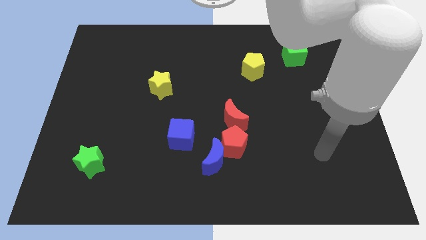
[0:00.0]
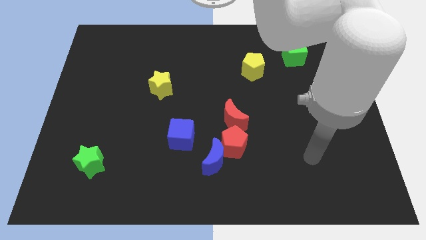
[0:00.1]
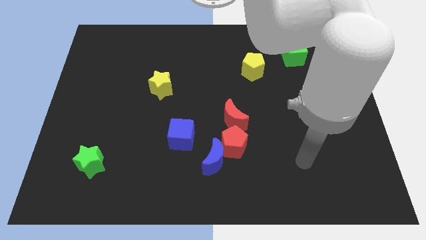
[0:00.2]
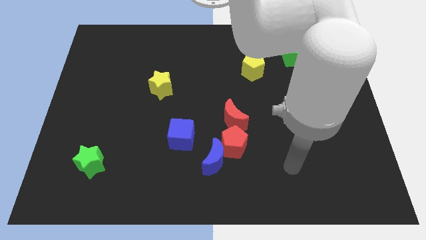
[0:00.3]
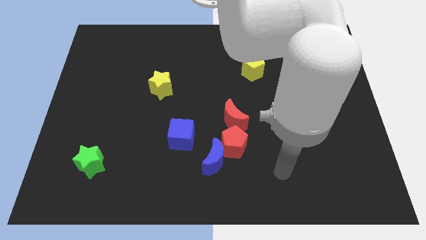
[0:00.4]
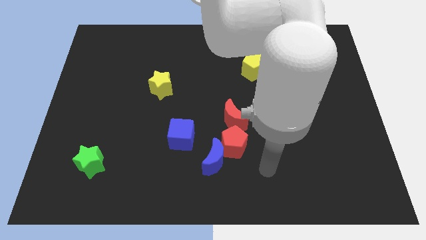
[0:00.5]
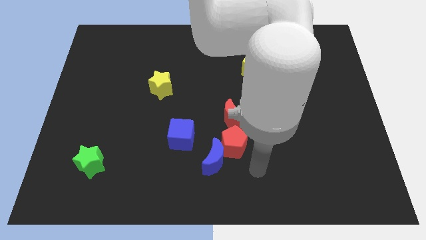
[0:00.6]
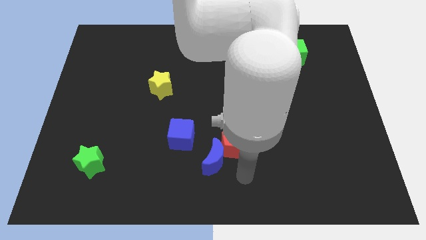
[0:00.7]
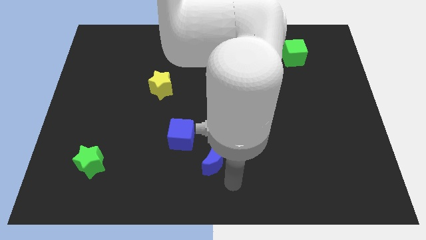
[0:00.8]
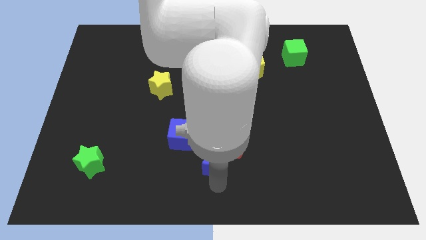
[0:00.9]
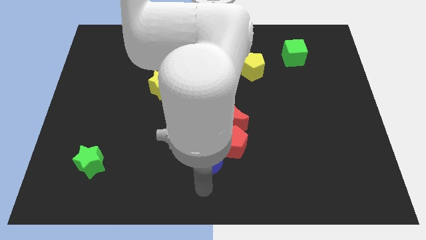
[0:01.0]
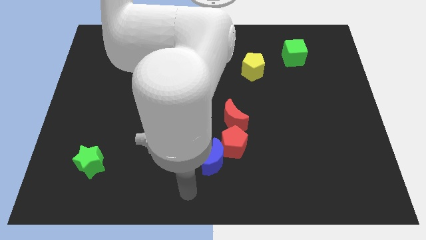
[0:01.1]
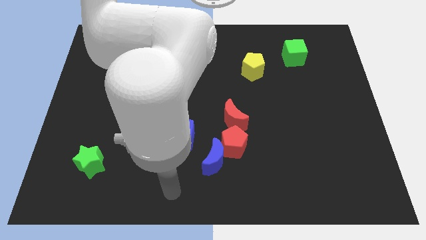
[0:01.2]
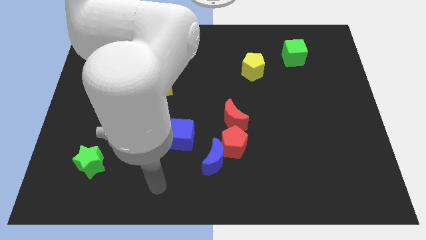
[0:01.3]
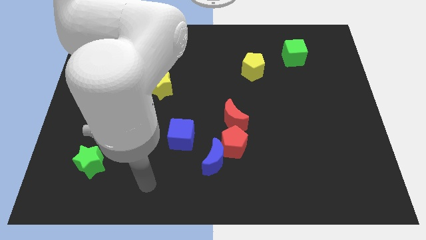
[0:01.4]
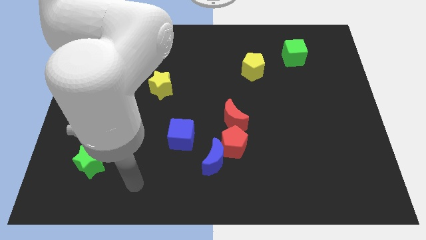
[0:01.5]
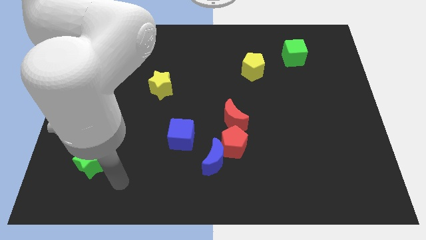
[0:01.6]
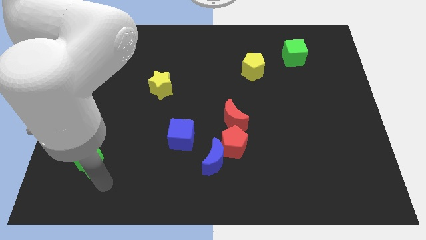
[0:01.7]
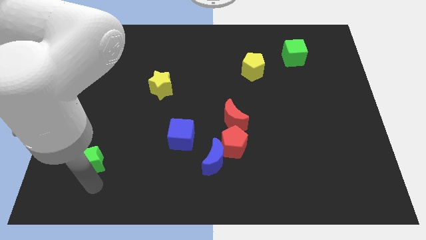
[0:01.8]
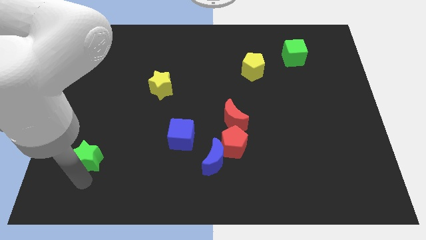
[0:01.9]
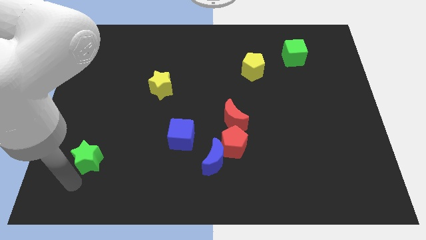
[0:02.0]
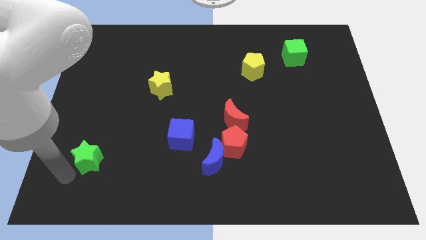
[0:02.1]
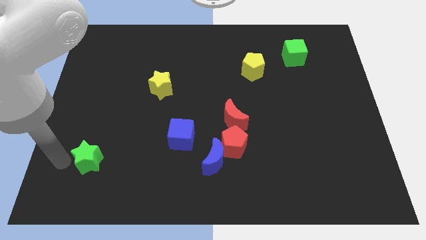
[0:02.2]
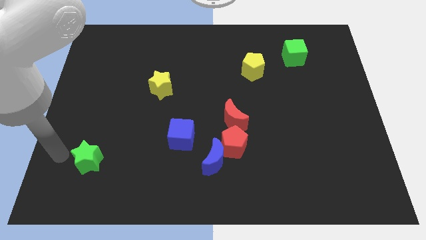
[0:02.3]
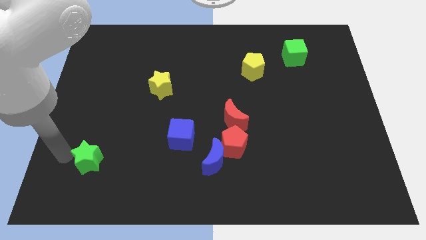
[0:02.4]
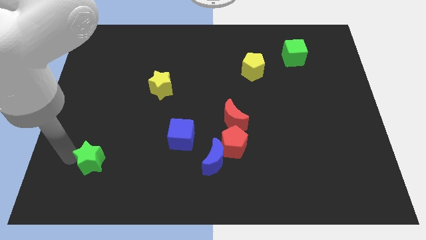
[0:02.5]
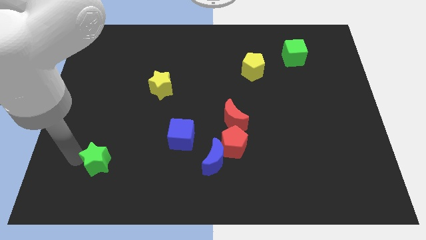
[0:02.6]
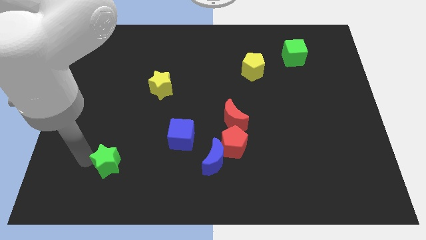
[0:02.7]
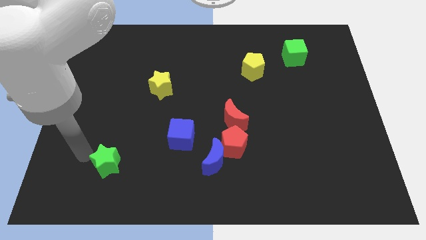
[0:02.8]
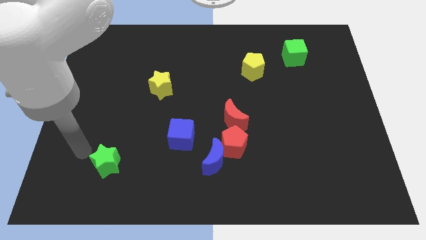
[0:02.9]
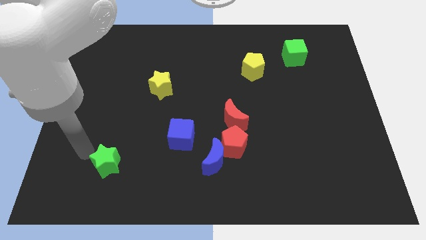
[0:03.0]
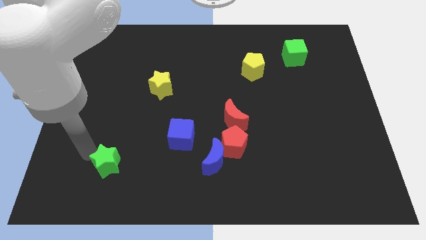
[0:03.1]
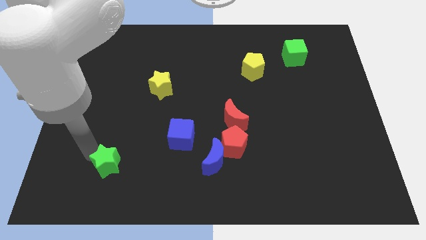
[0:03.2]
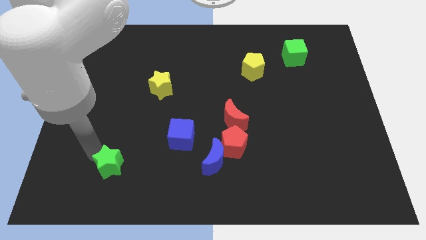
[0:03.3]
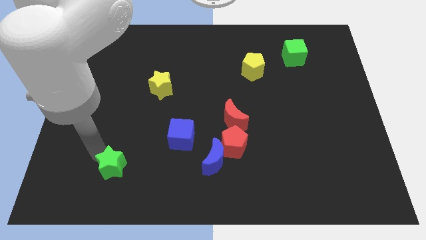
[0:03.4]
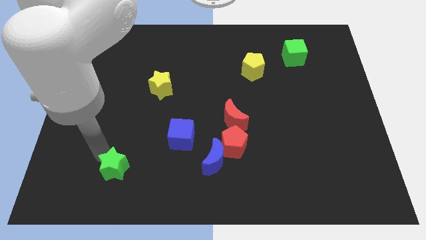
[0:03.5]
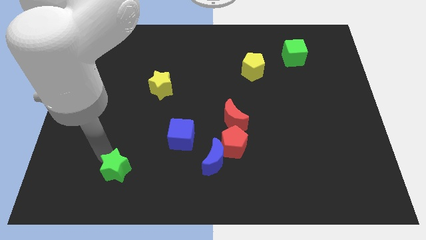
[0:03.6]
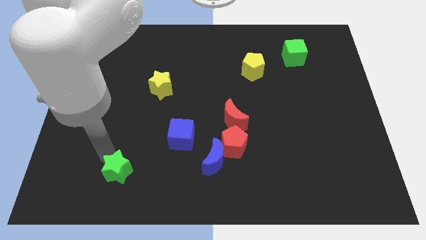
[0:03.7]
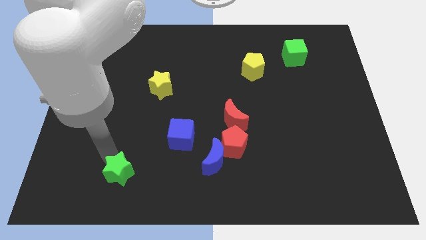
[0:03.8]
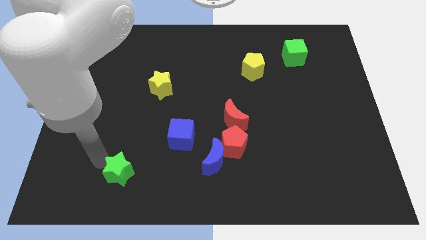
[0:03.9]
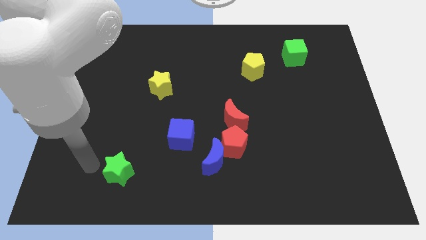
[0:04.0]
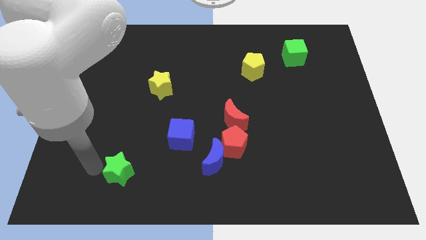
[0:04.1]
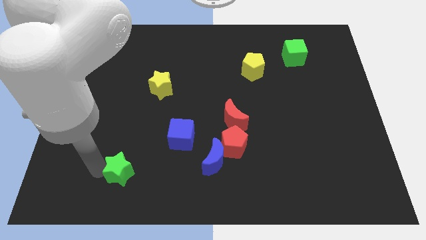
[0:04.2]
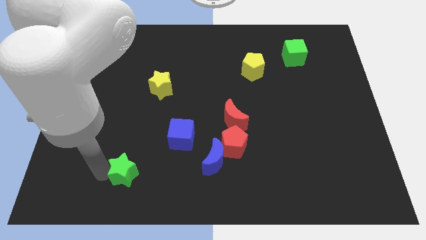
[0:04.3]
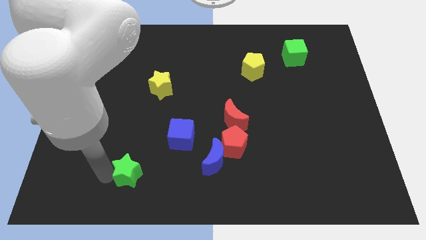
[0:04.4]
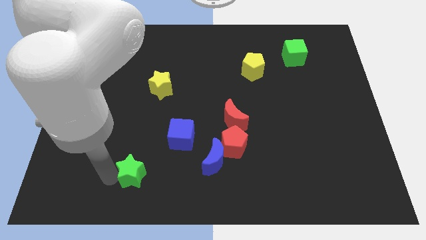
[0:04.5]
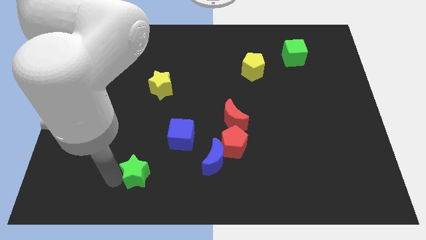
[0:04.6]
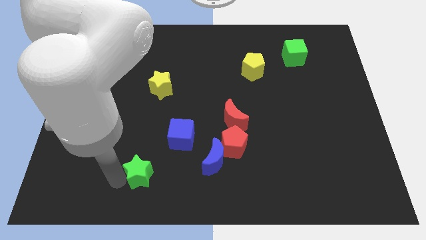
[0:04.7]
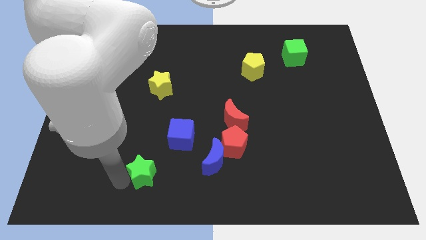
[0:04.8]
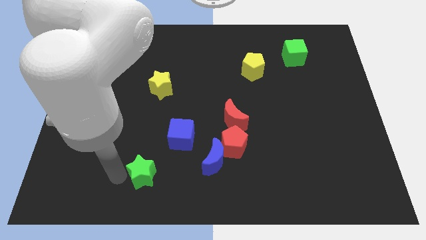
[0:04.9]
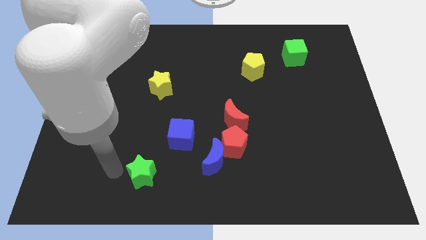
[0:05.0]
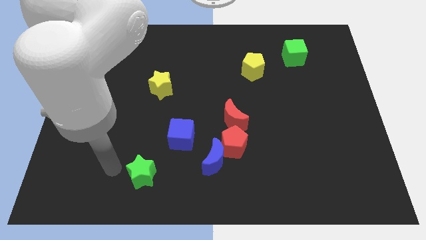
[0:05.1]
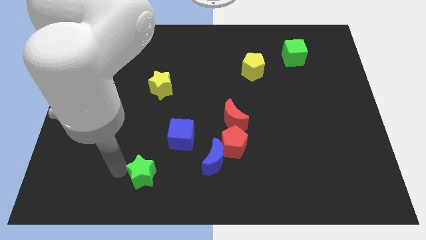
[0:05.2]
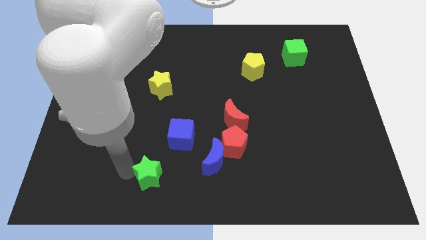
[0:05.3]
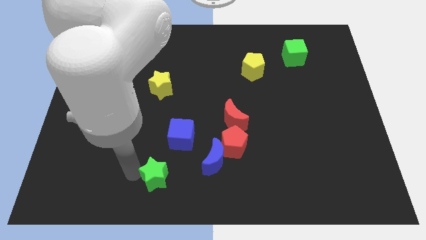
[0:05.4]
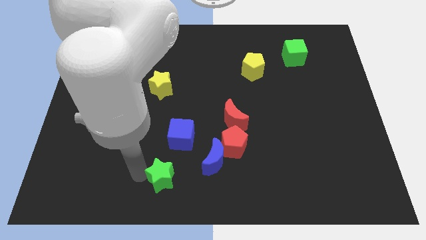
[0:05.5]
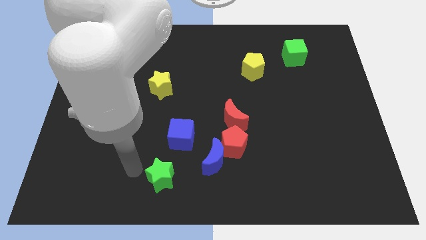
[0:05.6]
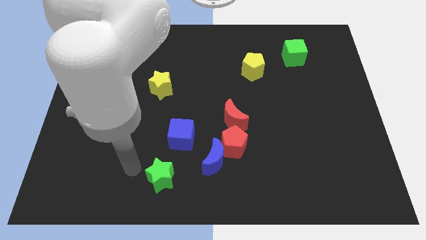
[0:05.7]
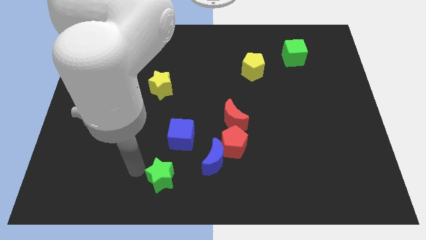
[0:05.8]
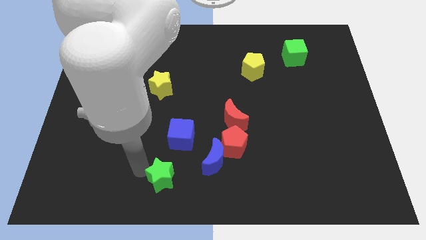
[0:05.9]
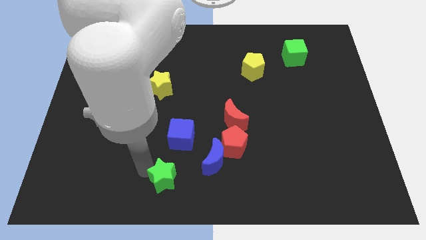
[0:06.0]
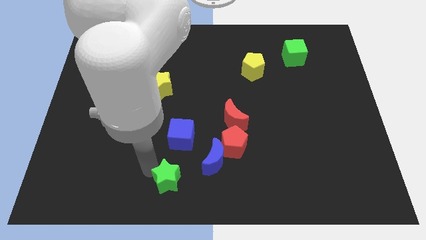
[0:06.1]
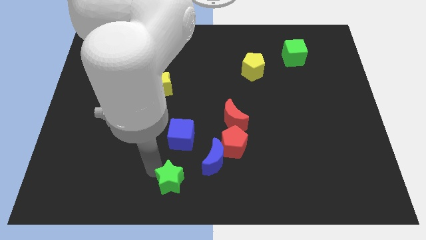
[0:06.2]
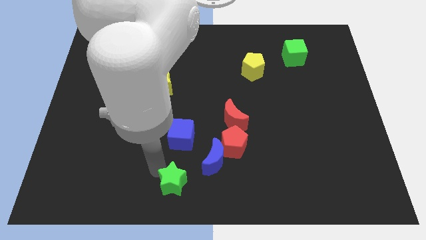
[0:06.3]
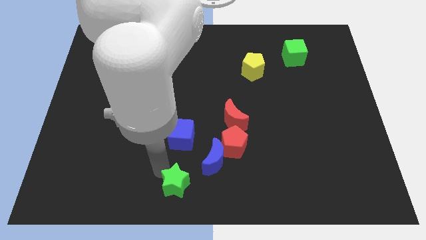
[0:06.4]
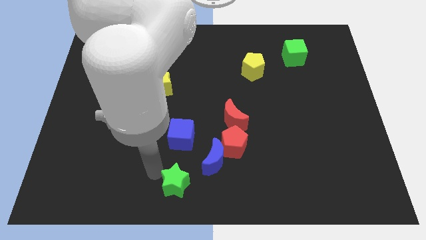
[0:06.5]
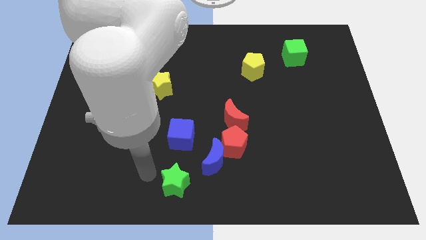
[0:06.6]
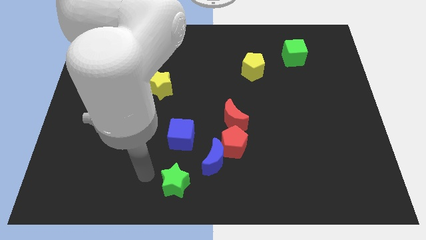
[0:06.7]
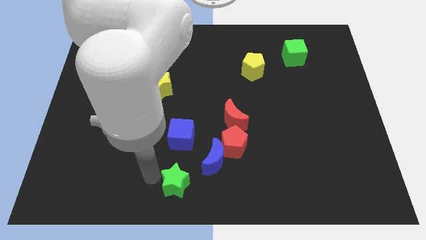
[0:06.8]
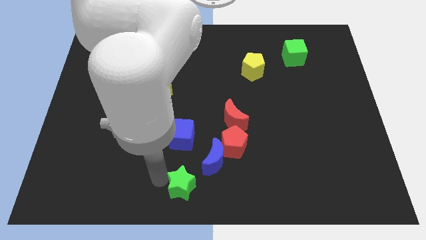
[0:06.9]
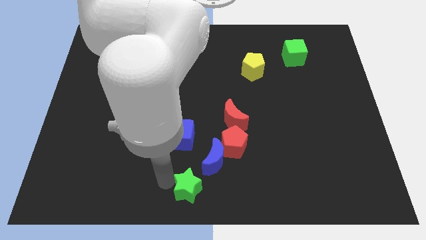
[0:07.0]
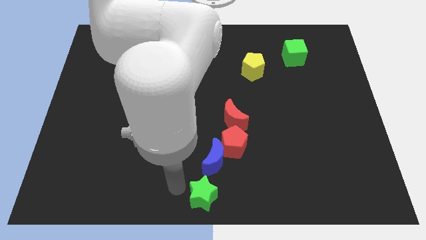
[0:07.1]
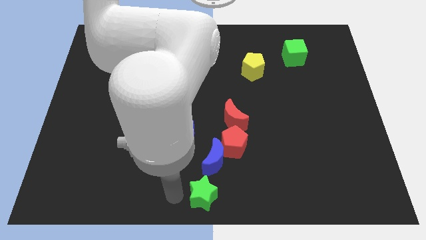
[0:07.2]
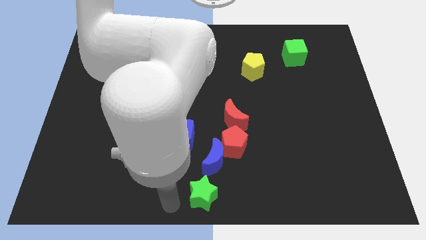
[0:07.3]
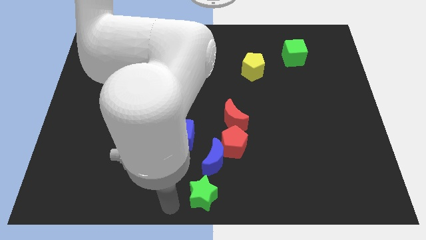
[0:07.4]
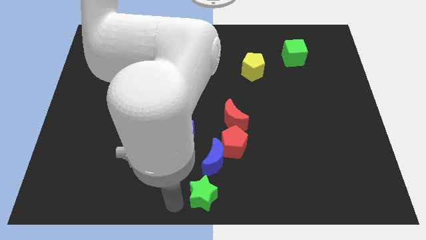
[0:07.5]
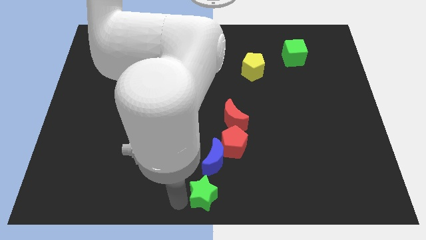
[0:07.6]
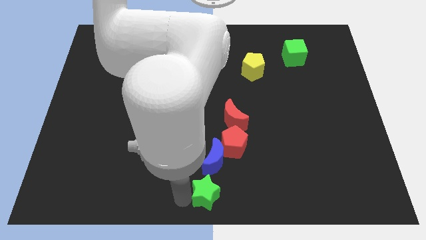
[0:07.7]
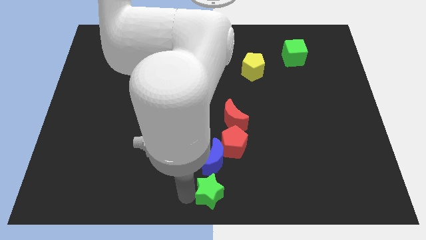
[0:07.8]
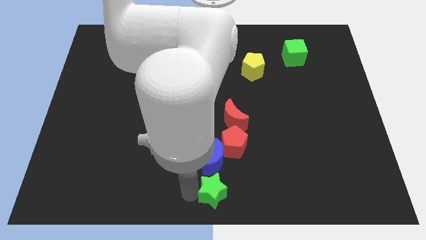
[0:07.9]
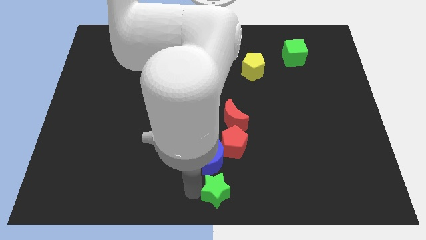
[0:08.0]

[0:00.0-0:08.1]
slide the green star to the bottom right of the blue moon
